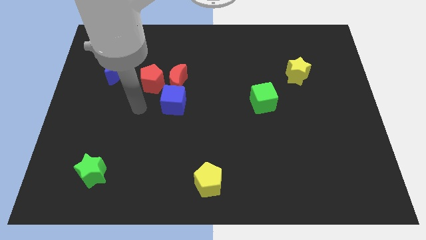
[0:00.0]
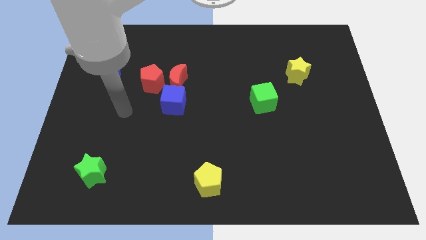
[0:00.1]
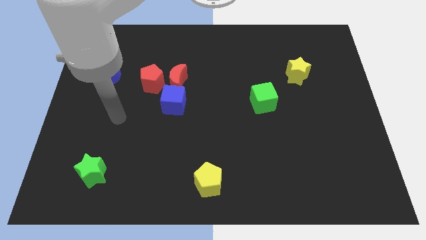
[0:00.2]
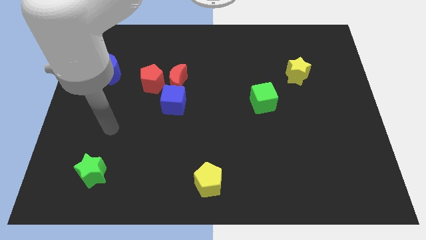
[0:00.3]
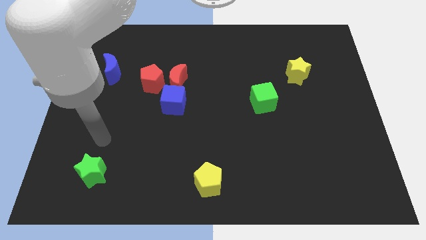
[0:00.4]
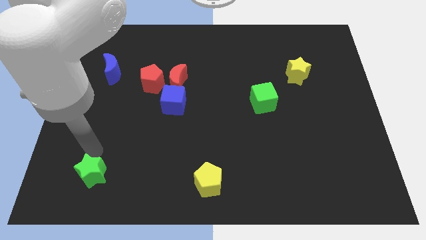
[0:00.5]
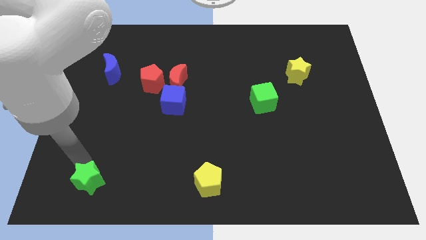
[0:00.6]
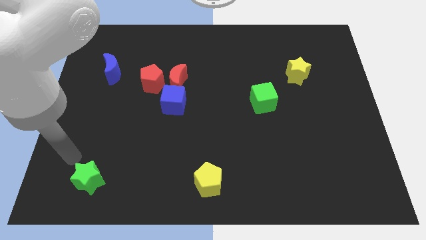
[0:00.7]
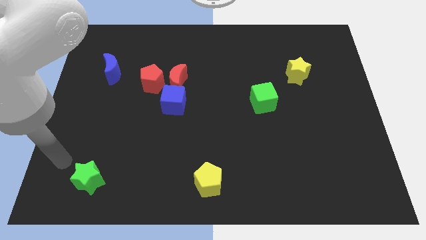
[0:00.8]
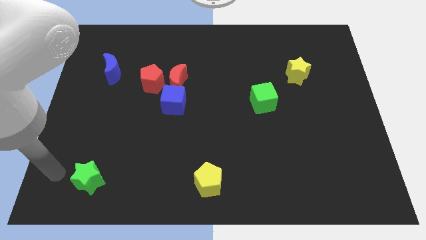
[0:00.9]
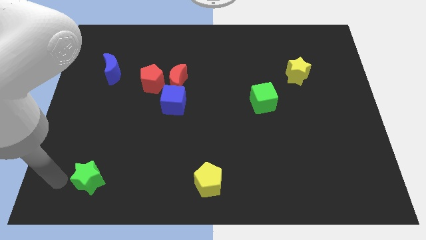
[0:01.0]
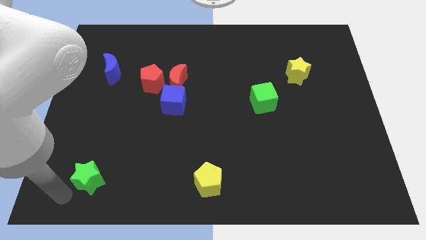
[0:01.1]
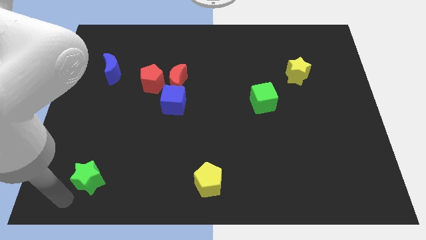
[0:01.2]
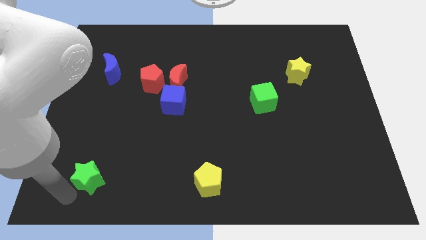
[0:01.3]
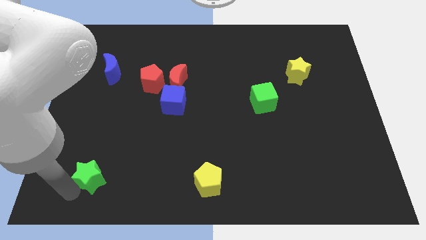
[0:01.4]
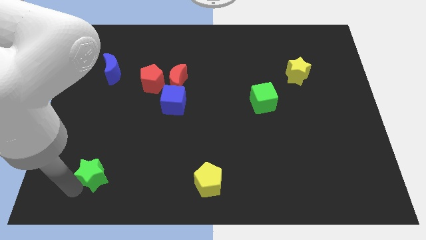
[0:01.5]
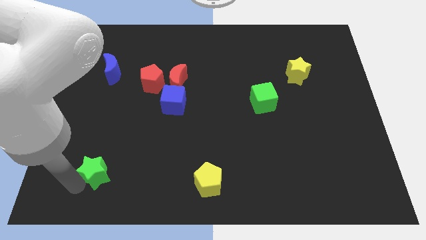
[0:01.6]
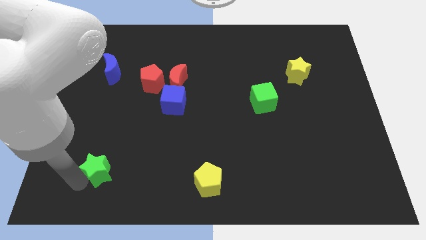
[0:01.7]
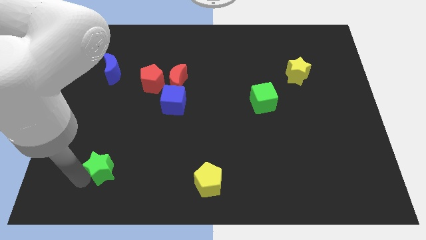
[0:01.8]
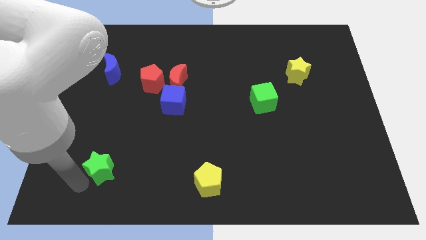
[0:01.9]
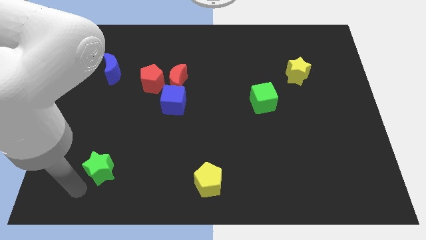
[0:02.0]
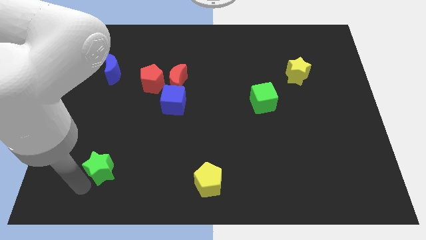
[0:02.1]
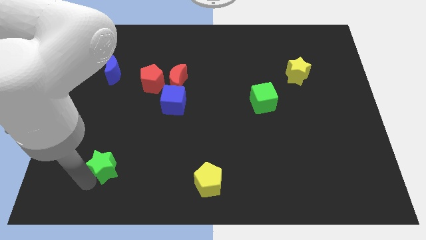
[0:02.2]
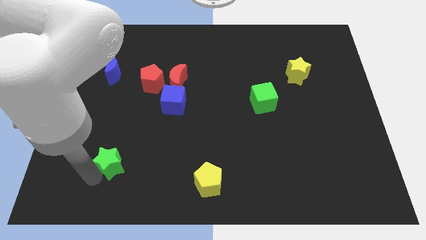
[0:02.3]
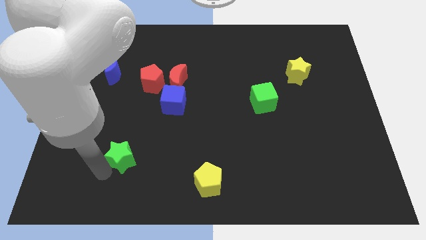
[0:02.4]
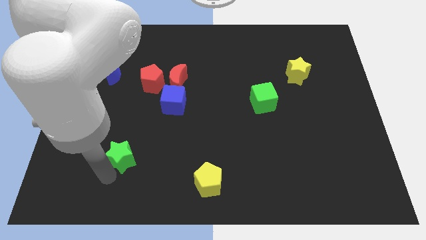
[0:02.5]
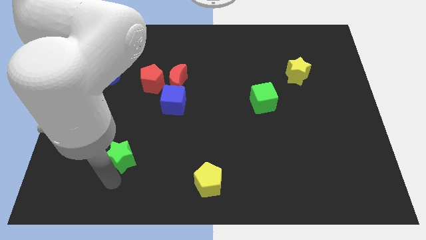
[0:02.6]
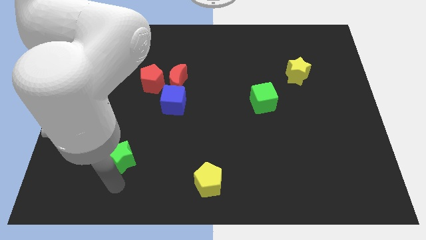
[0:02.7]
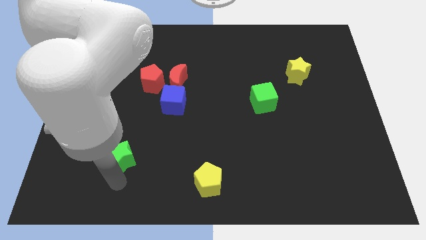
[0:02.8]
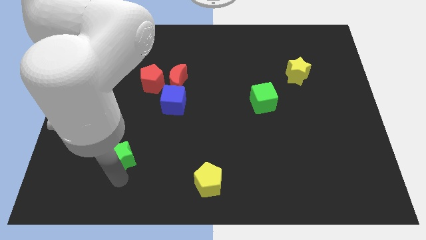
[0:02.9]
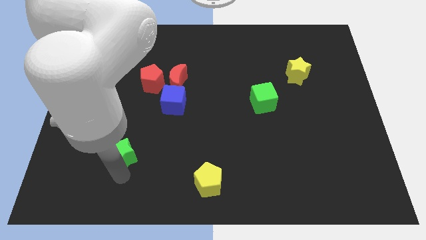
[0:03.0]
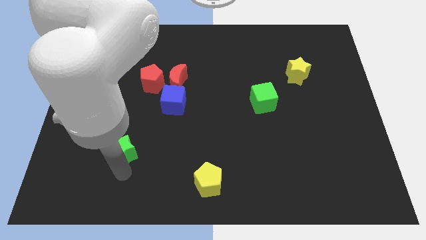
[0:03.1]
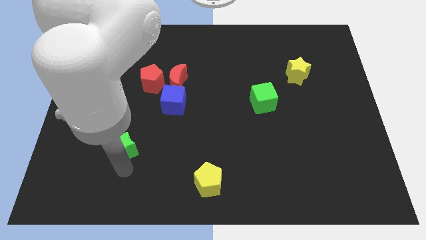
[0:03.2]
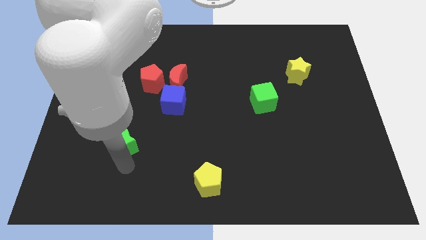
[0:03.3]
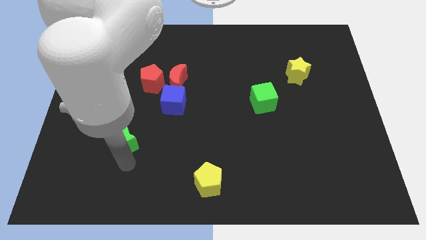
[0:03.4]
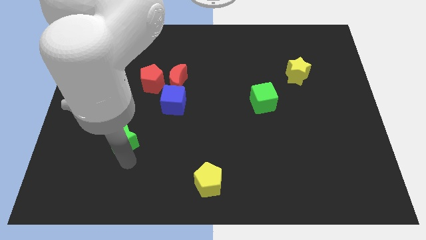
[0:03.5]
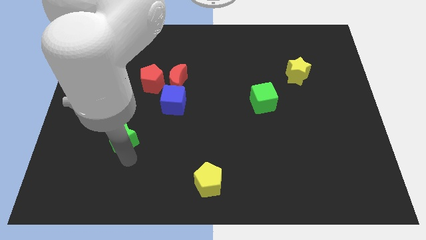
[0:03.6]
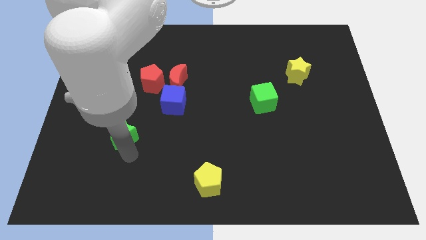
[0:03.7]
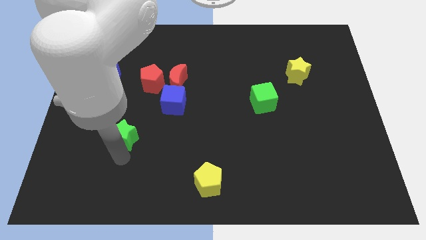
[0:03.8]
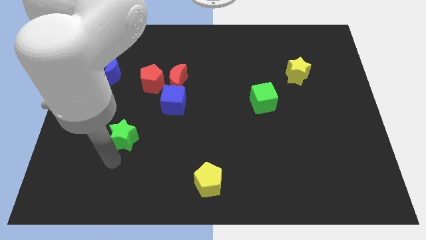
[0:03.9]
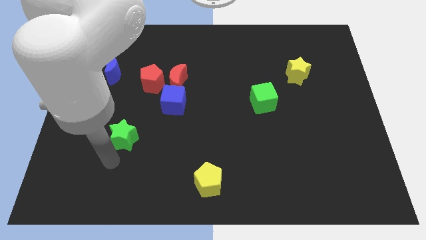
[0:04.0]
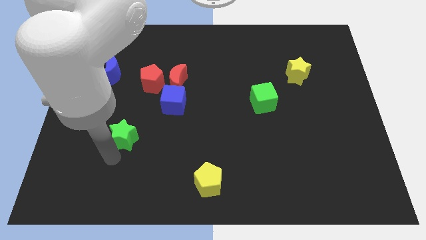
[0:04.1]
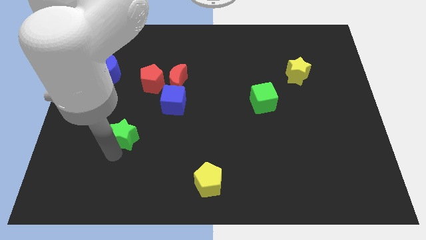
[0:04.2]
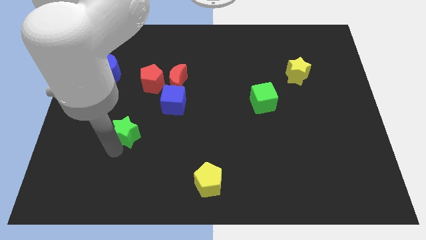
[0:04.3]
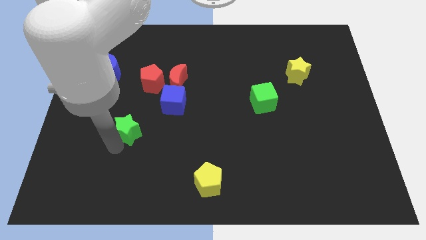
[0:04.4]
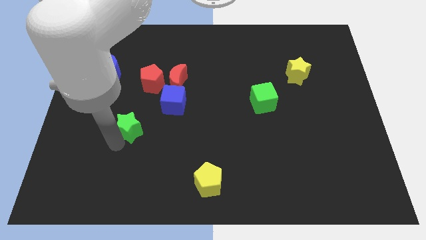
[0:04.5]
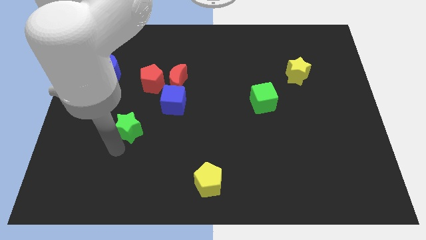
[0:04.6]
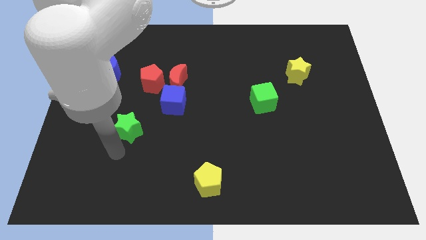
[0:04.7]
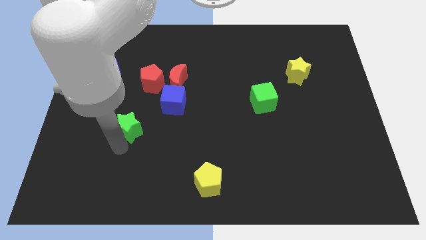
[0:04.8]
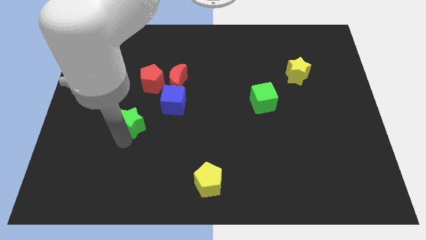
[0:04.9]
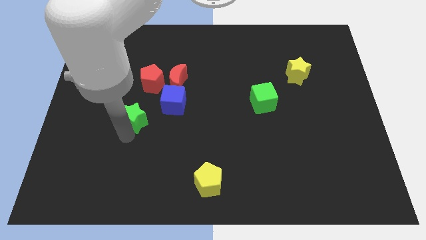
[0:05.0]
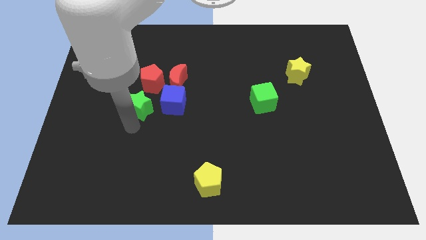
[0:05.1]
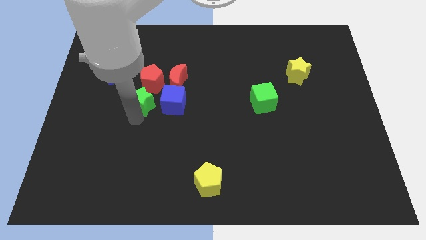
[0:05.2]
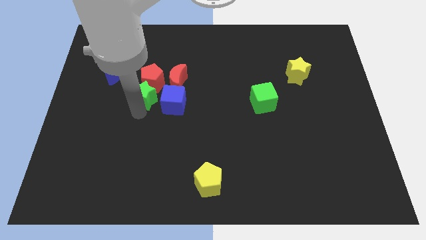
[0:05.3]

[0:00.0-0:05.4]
push the green star next to the red pentagon
